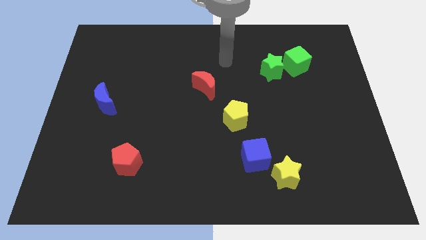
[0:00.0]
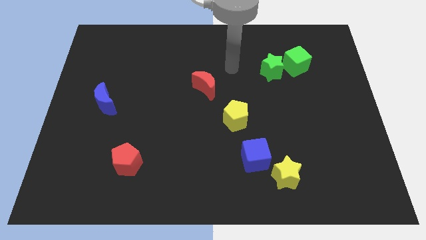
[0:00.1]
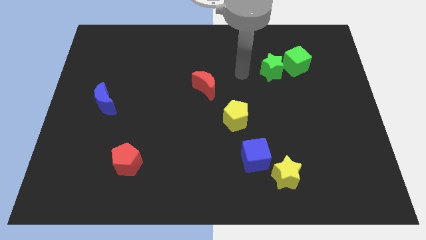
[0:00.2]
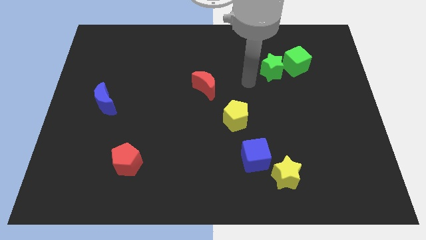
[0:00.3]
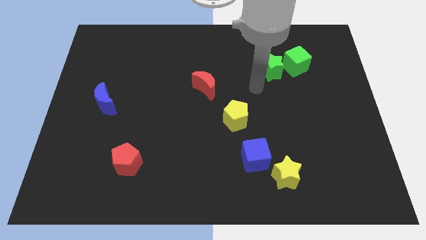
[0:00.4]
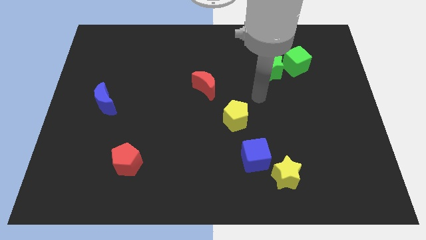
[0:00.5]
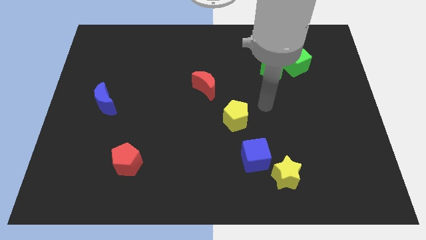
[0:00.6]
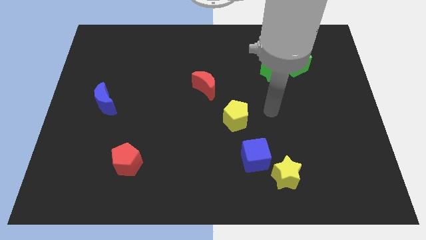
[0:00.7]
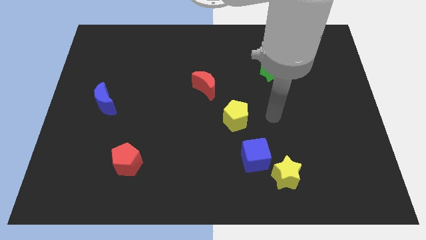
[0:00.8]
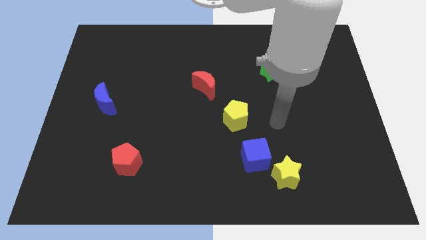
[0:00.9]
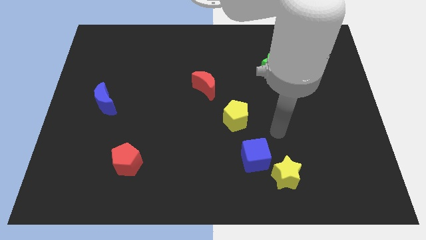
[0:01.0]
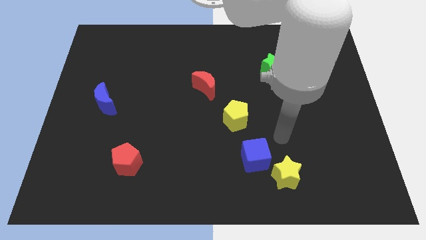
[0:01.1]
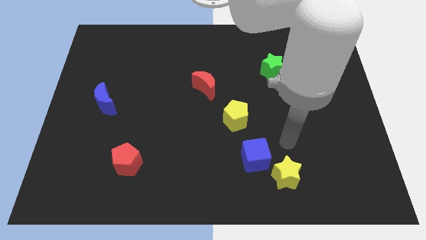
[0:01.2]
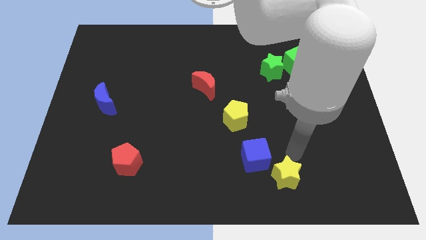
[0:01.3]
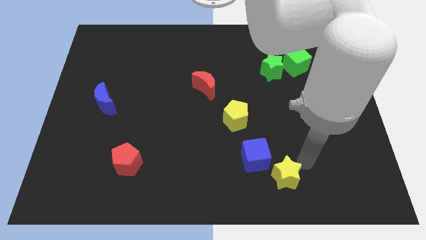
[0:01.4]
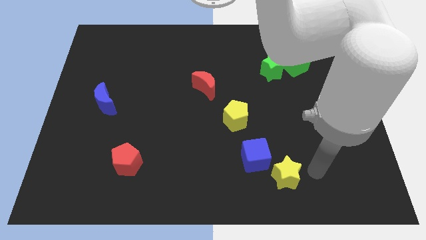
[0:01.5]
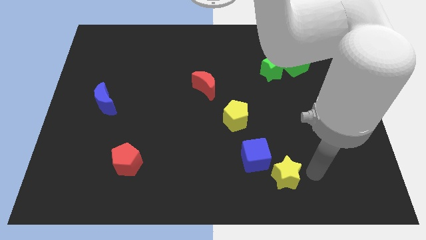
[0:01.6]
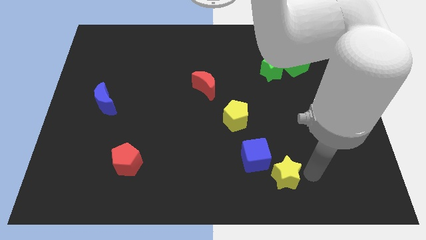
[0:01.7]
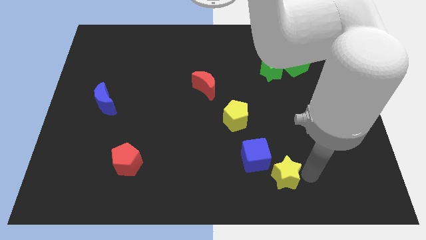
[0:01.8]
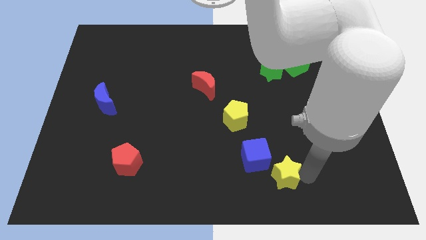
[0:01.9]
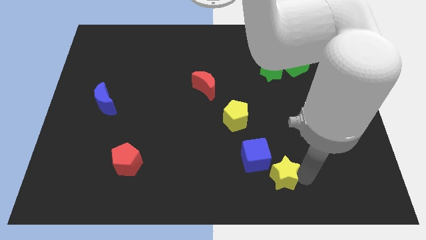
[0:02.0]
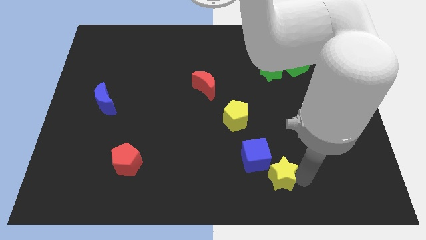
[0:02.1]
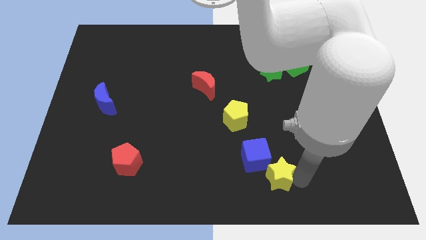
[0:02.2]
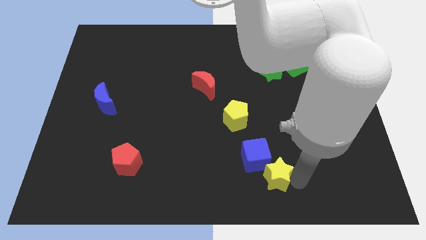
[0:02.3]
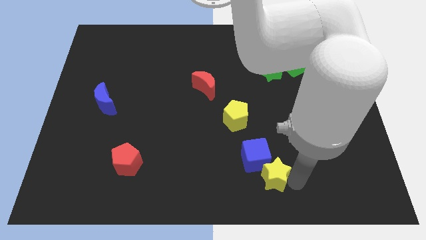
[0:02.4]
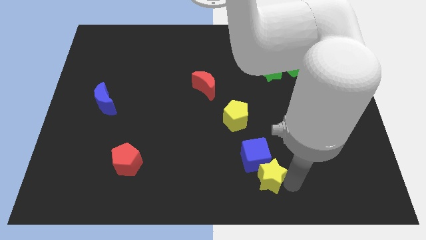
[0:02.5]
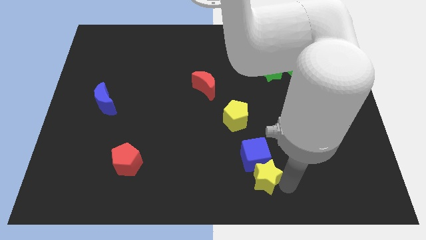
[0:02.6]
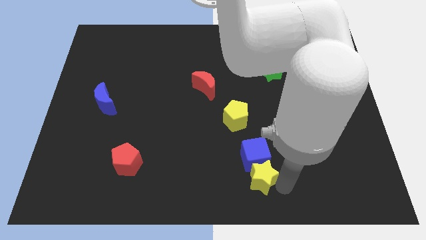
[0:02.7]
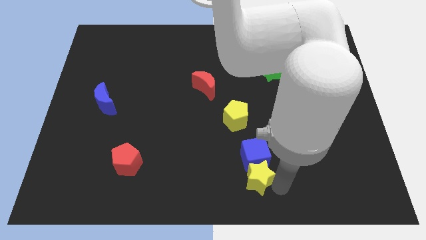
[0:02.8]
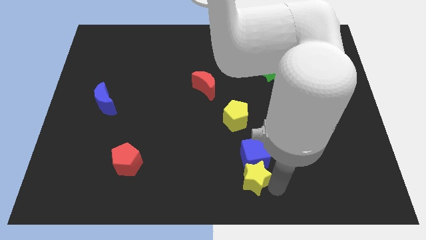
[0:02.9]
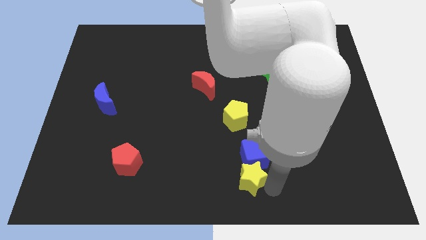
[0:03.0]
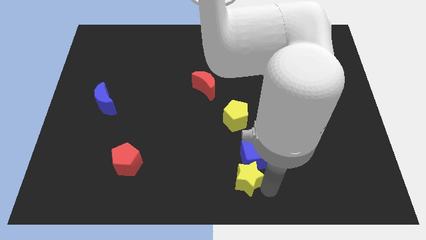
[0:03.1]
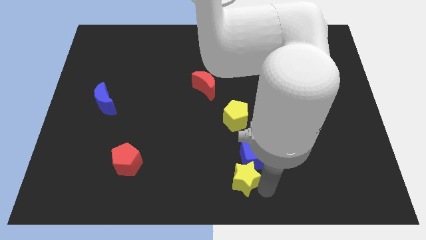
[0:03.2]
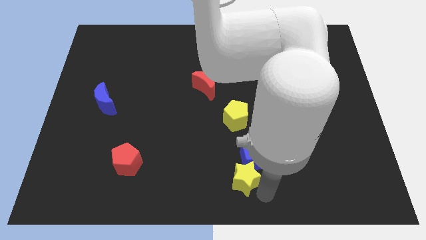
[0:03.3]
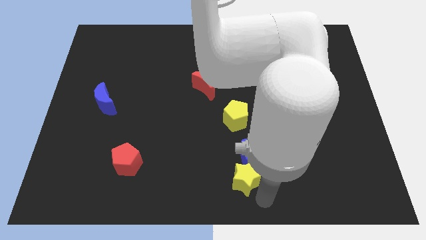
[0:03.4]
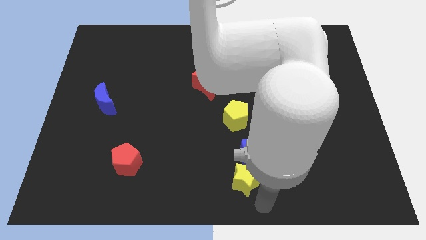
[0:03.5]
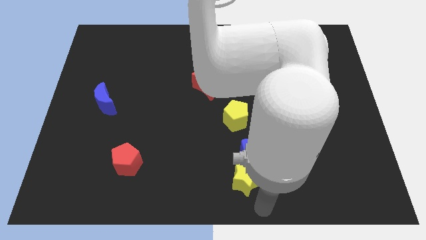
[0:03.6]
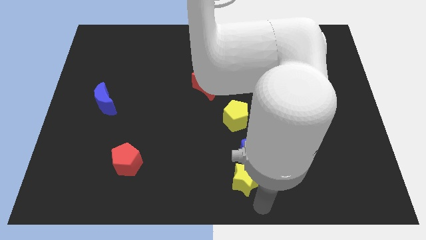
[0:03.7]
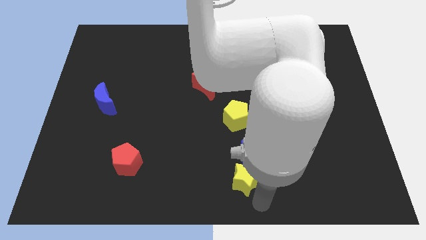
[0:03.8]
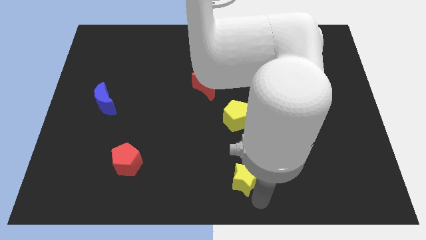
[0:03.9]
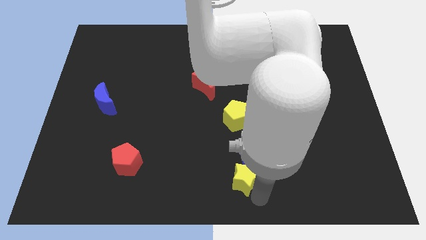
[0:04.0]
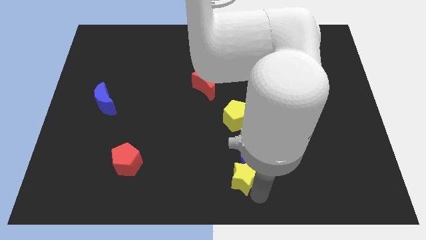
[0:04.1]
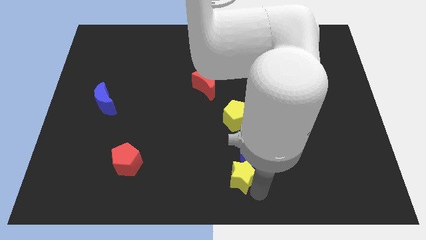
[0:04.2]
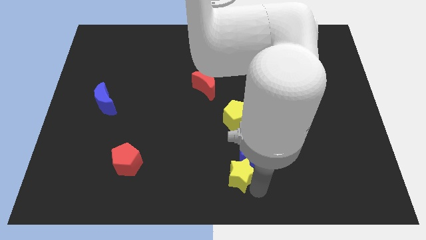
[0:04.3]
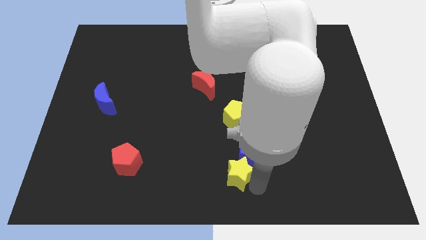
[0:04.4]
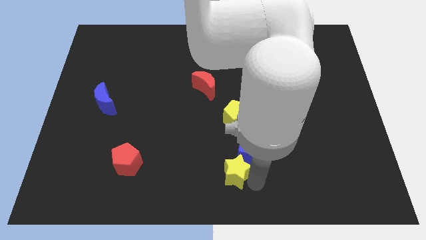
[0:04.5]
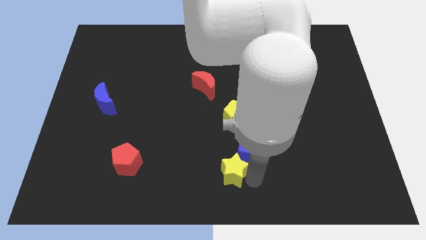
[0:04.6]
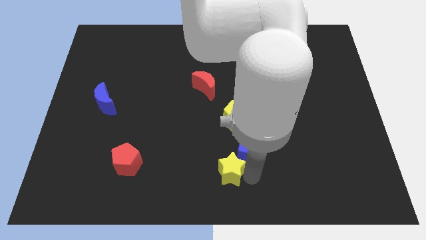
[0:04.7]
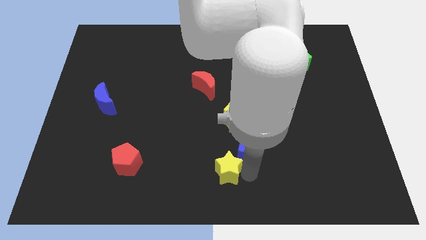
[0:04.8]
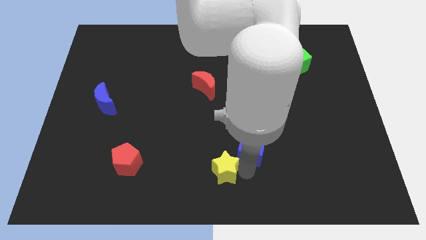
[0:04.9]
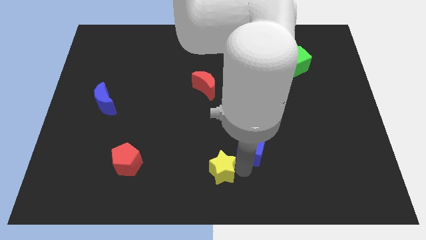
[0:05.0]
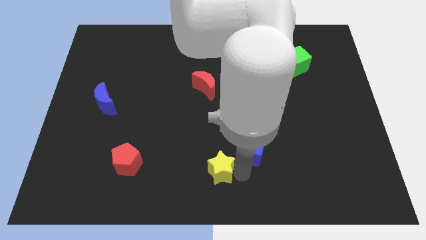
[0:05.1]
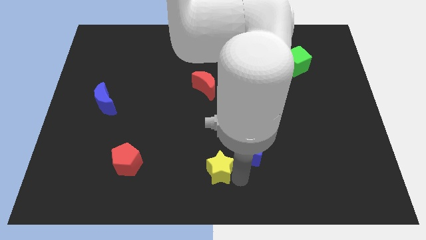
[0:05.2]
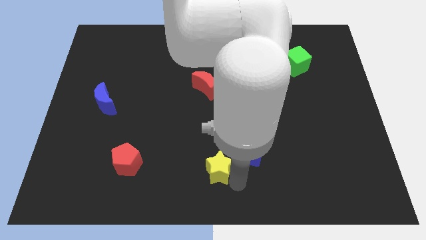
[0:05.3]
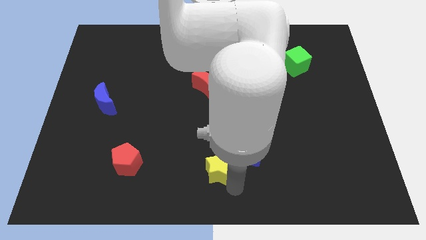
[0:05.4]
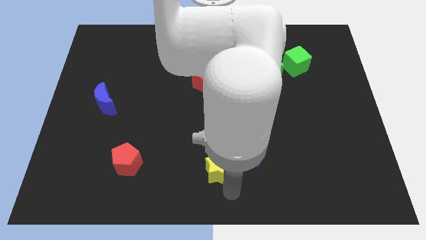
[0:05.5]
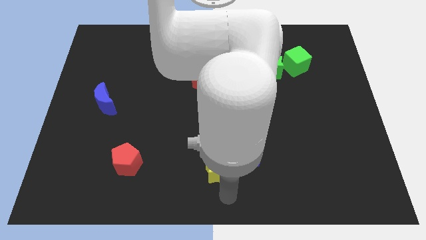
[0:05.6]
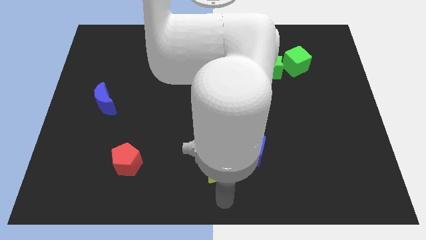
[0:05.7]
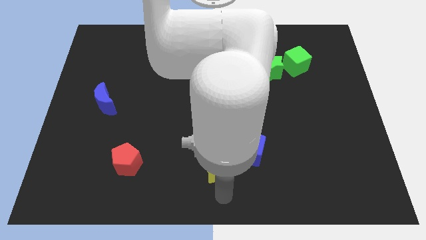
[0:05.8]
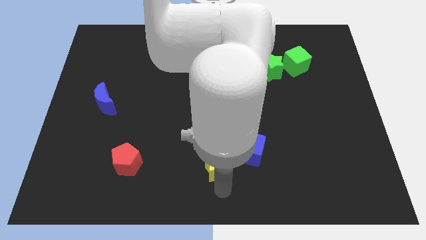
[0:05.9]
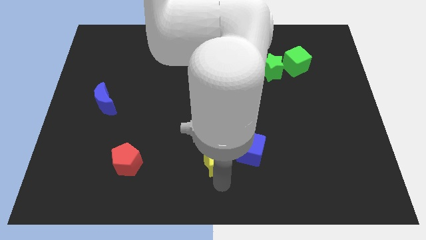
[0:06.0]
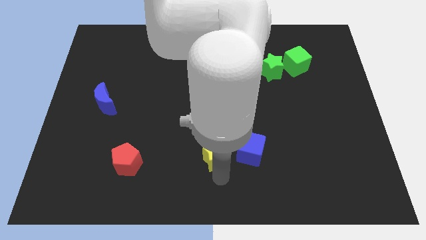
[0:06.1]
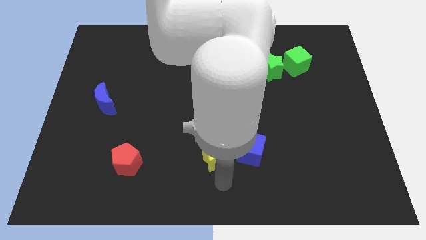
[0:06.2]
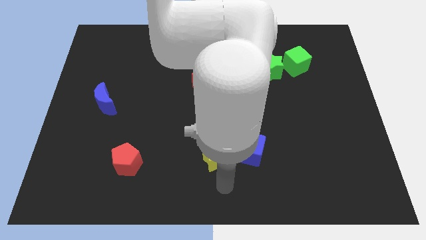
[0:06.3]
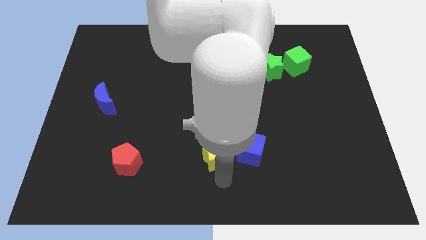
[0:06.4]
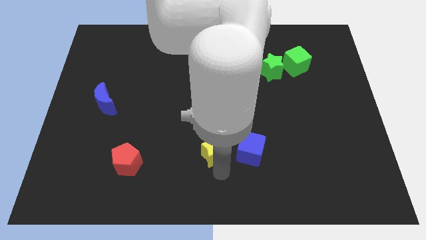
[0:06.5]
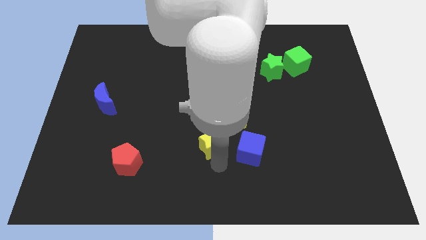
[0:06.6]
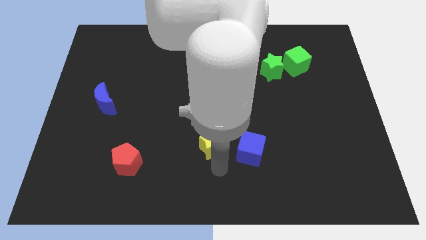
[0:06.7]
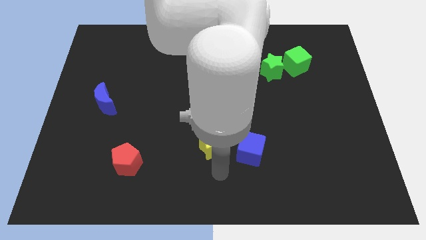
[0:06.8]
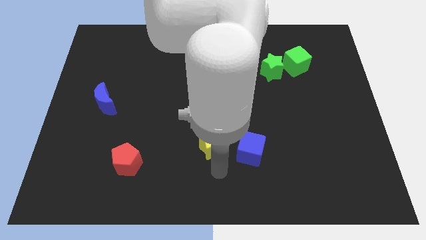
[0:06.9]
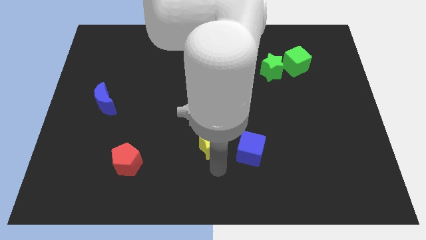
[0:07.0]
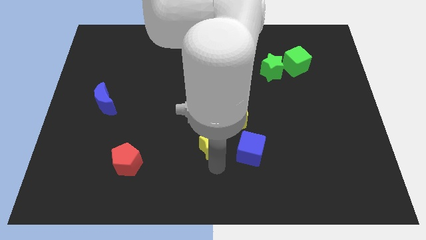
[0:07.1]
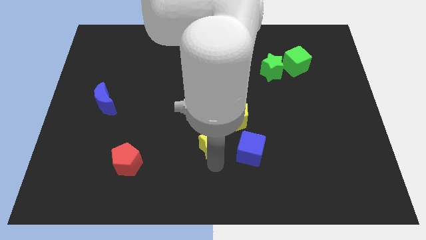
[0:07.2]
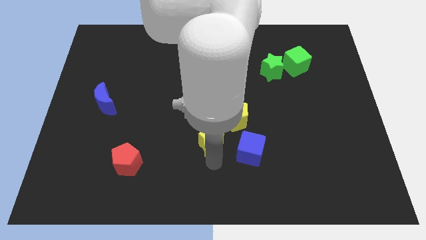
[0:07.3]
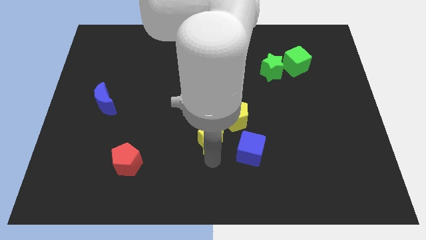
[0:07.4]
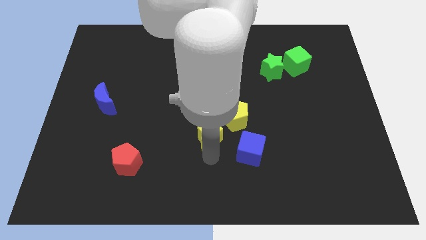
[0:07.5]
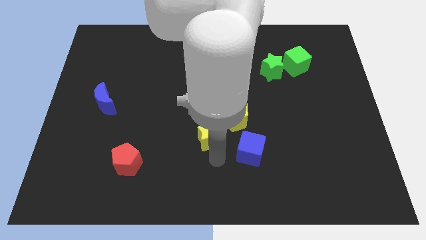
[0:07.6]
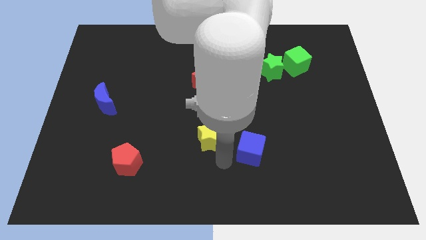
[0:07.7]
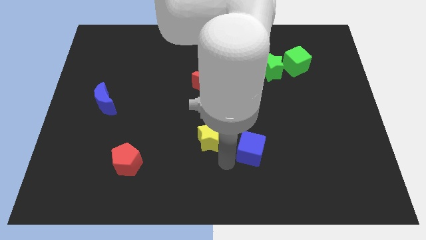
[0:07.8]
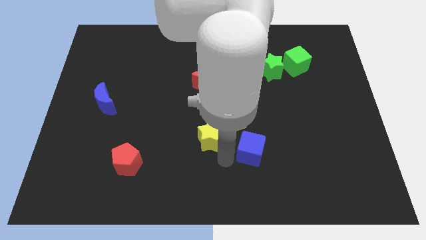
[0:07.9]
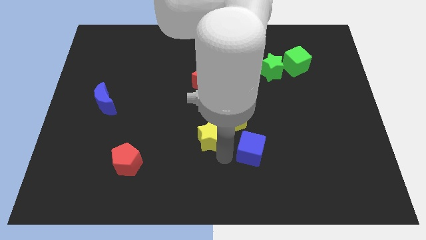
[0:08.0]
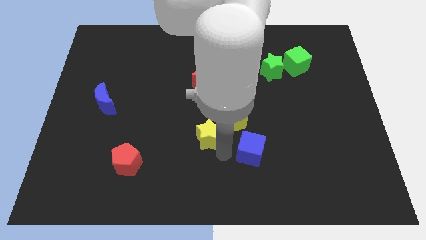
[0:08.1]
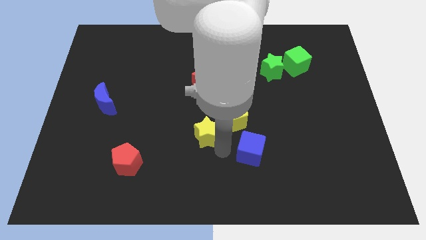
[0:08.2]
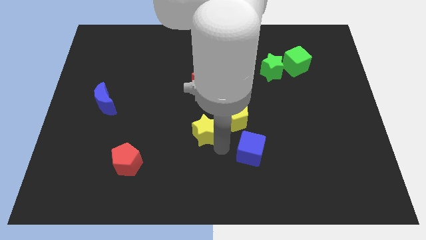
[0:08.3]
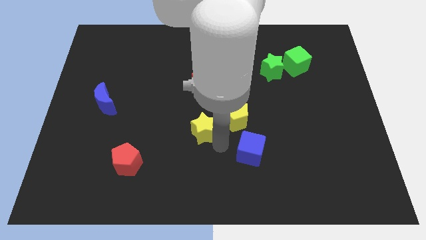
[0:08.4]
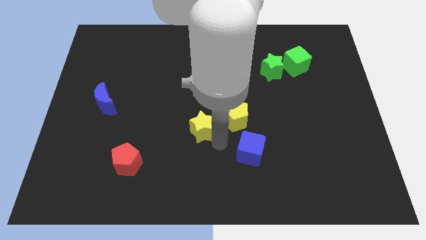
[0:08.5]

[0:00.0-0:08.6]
move the yellow star upwards and then to the left
